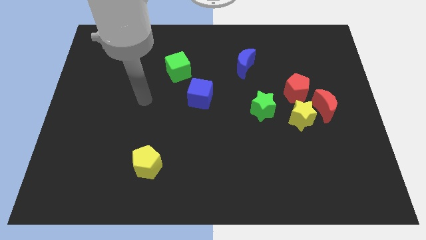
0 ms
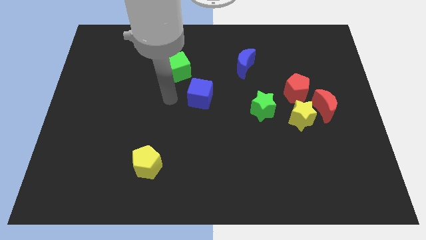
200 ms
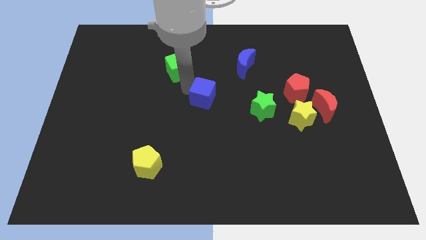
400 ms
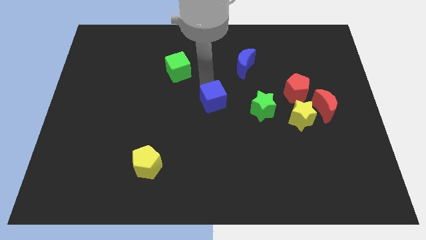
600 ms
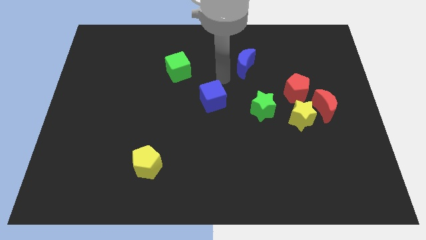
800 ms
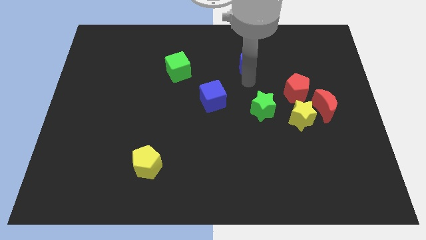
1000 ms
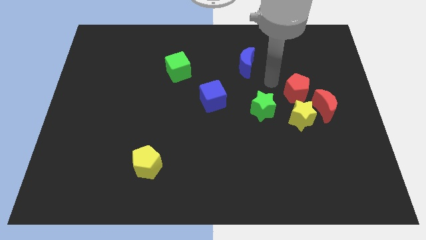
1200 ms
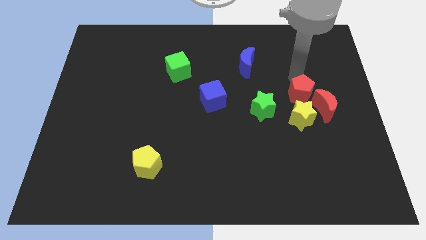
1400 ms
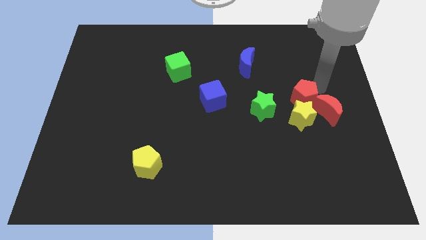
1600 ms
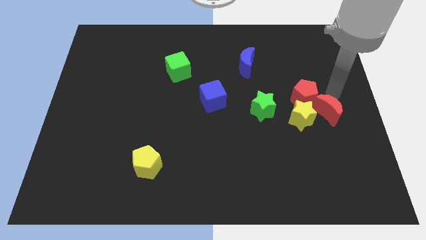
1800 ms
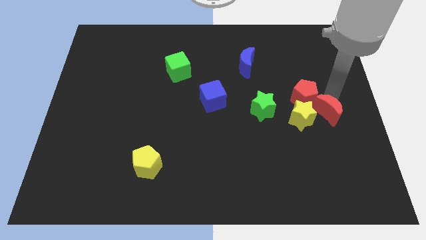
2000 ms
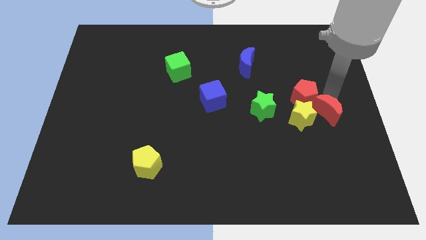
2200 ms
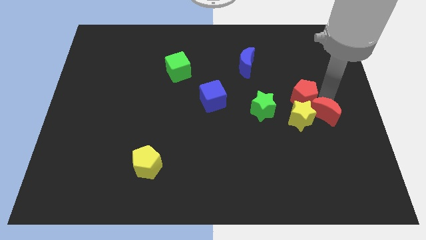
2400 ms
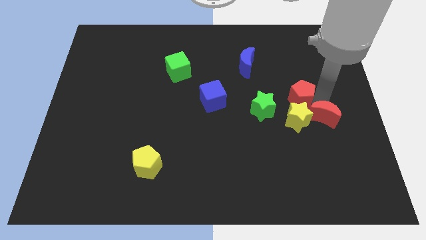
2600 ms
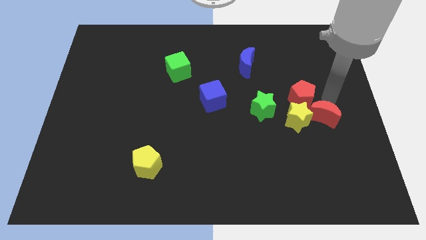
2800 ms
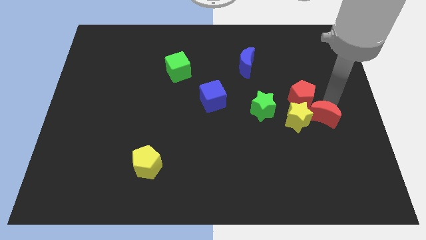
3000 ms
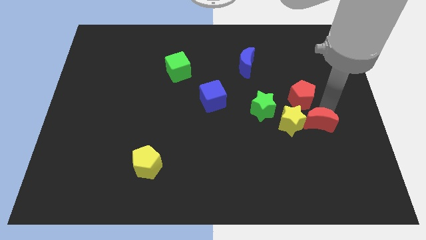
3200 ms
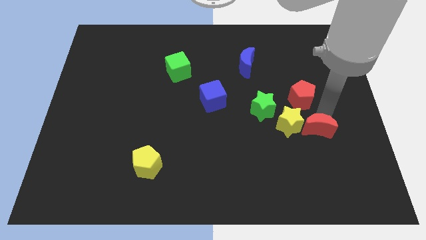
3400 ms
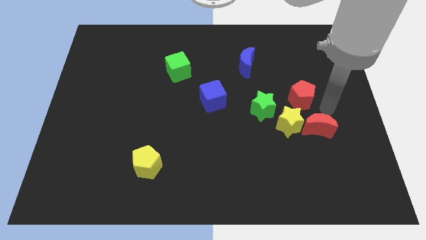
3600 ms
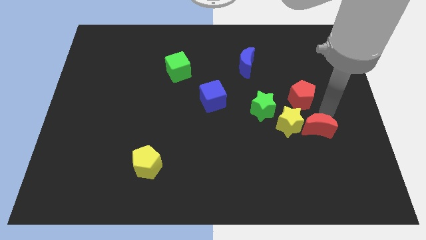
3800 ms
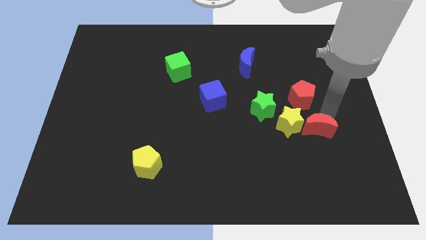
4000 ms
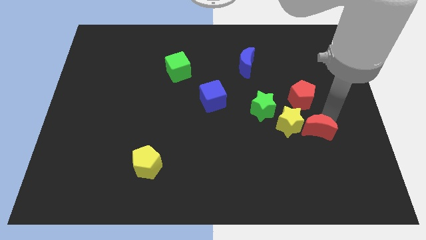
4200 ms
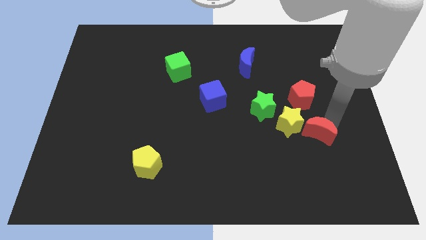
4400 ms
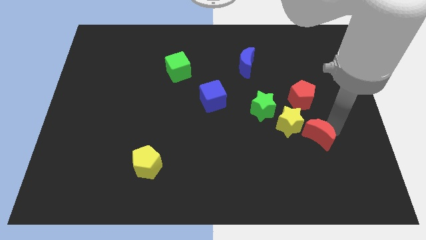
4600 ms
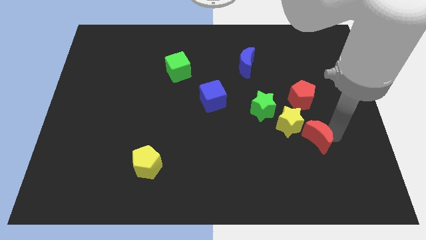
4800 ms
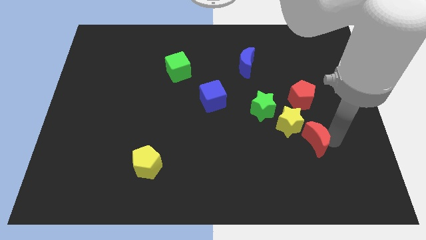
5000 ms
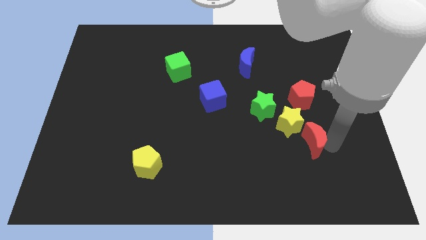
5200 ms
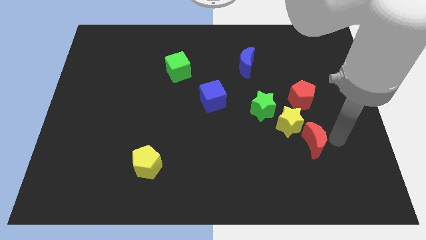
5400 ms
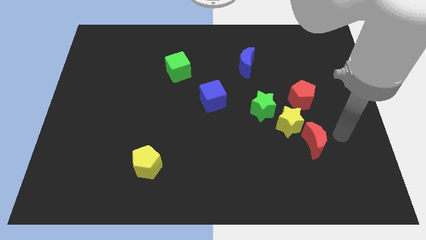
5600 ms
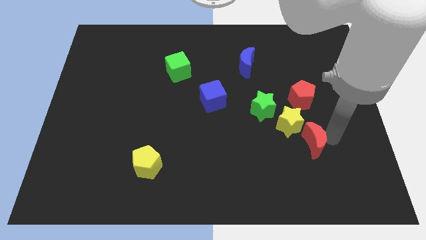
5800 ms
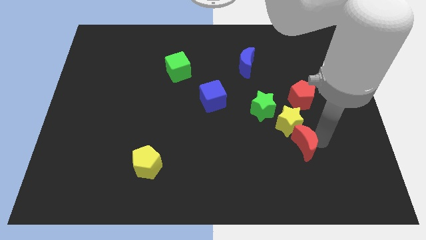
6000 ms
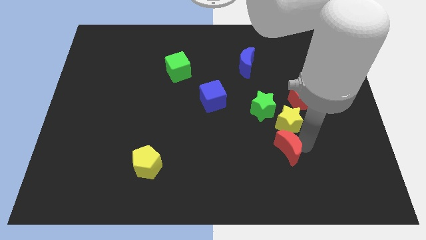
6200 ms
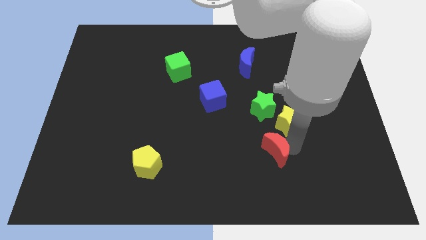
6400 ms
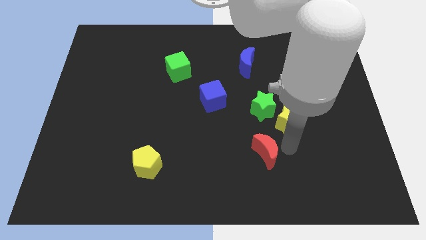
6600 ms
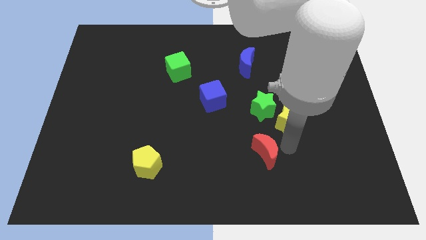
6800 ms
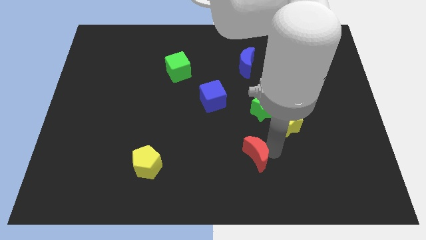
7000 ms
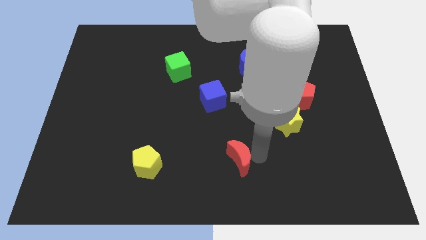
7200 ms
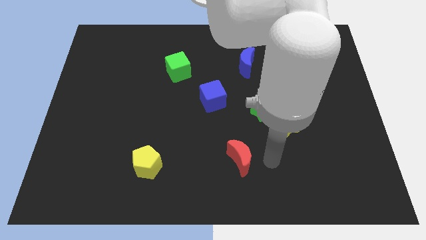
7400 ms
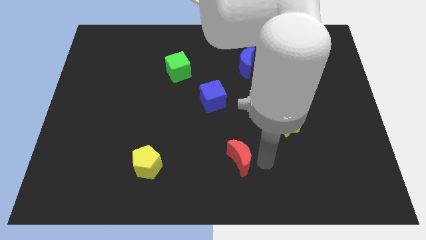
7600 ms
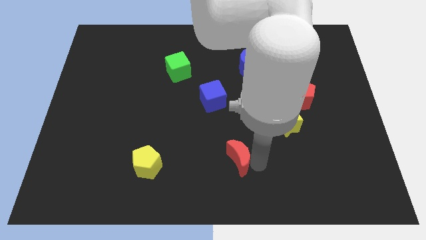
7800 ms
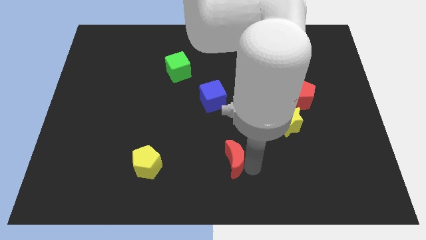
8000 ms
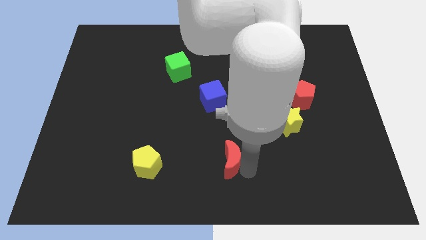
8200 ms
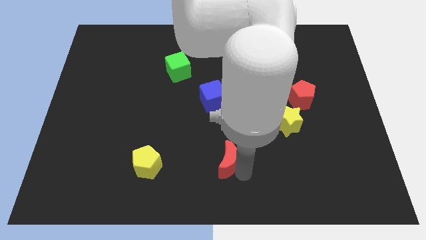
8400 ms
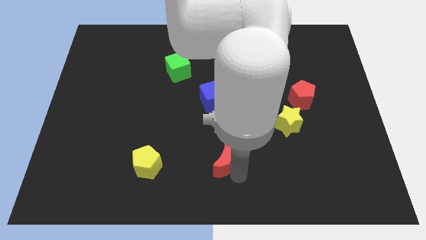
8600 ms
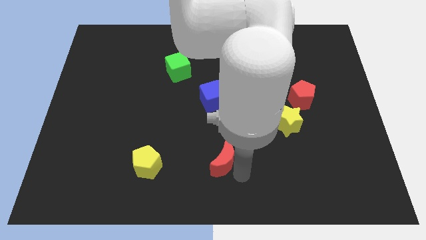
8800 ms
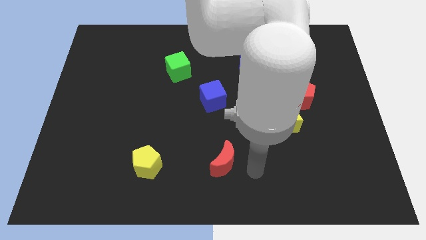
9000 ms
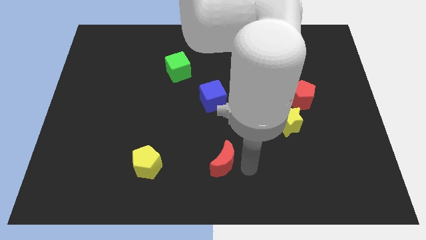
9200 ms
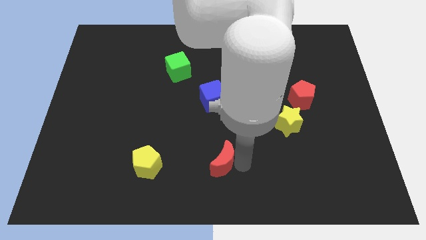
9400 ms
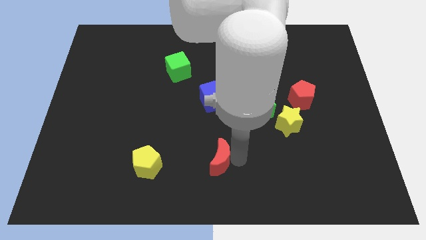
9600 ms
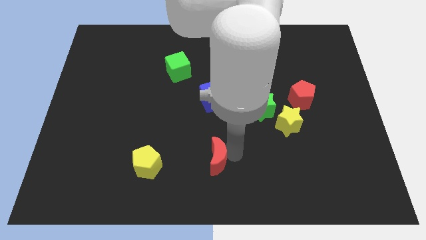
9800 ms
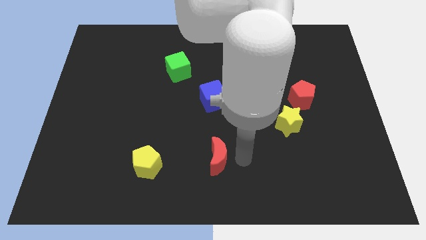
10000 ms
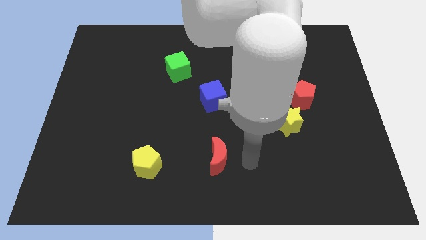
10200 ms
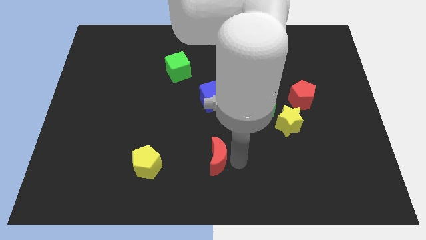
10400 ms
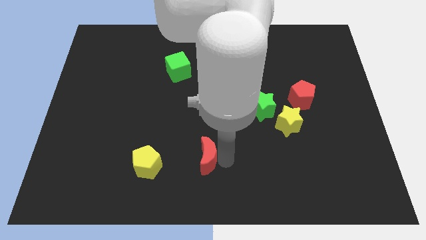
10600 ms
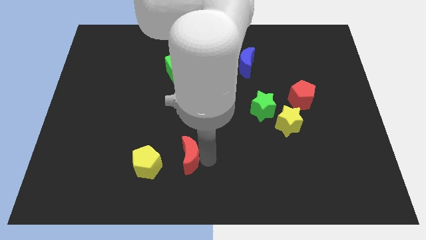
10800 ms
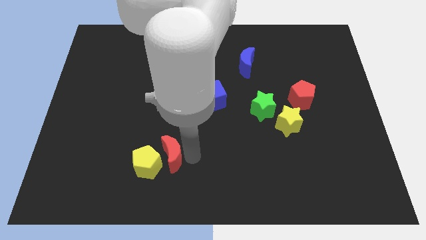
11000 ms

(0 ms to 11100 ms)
push the red moon to the yellow pentagon

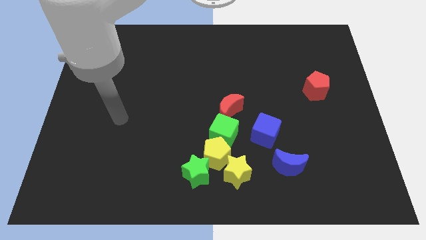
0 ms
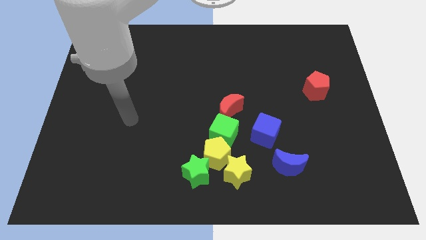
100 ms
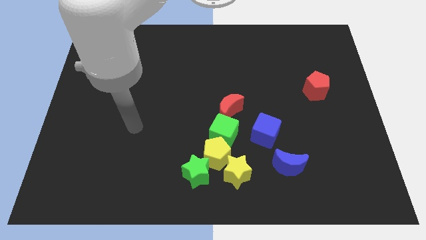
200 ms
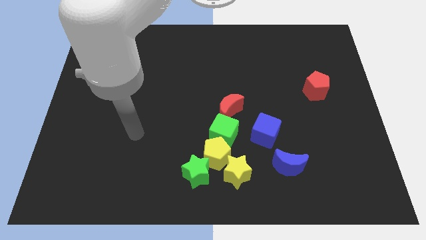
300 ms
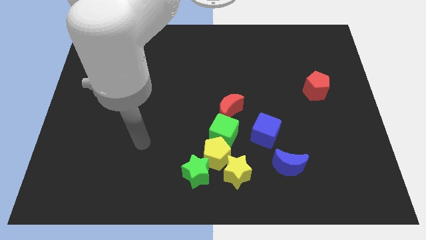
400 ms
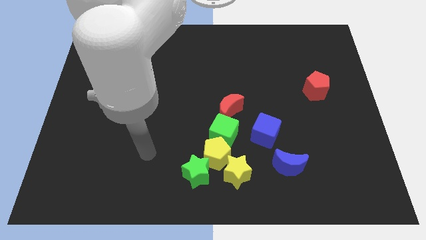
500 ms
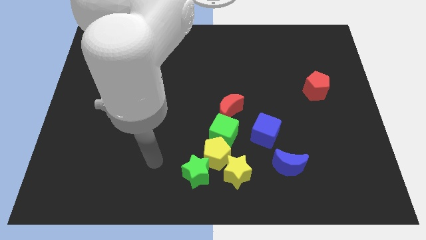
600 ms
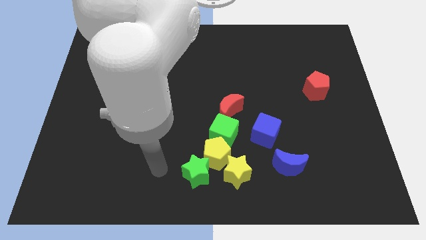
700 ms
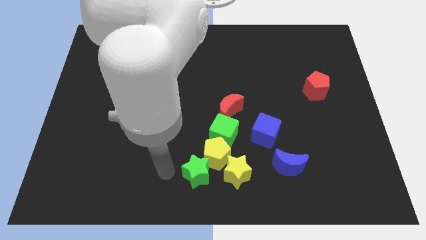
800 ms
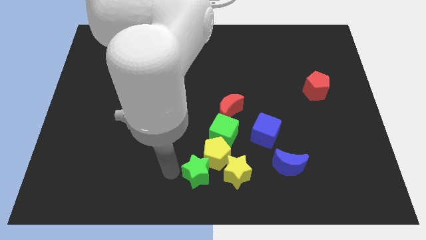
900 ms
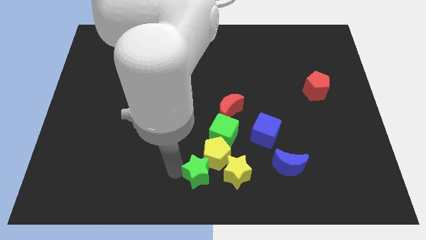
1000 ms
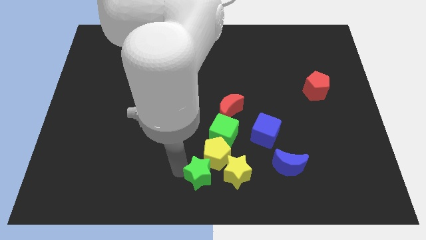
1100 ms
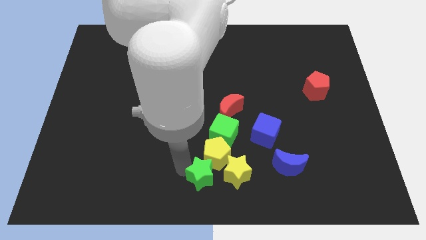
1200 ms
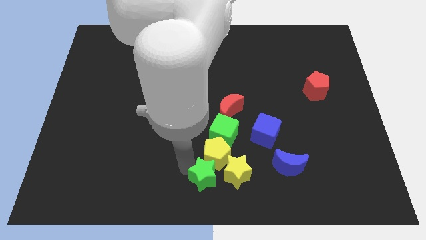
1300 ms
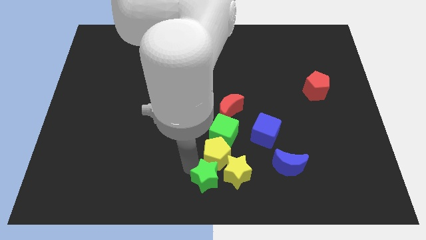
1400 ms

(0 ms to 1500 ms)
push the green star to the yellow star
